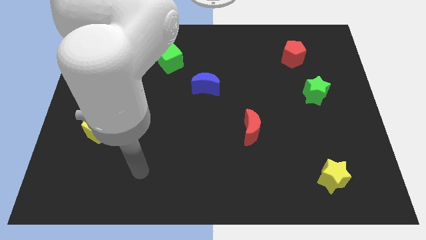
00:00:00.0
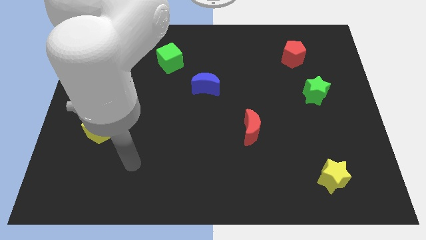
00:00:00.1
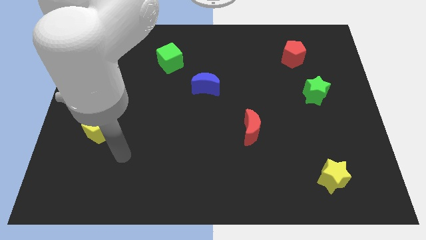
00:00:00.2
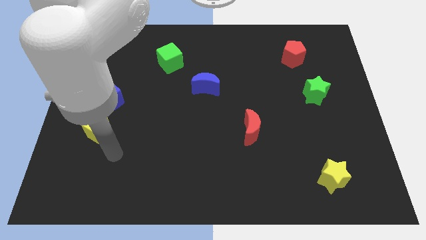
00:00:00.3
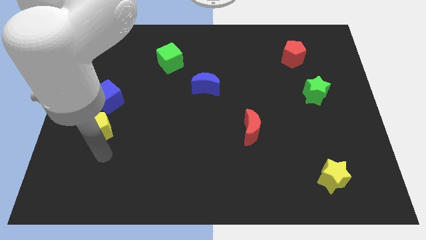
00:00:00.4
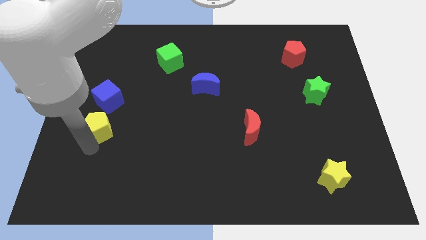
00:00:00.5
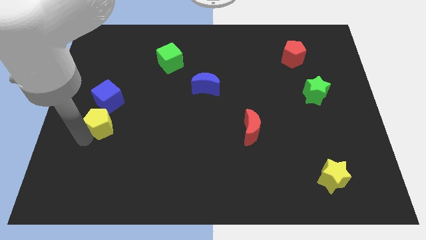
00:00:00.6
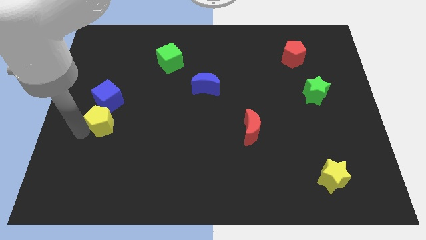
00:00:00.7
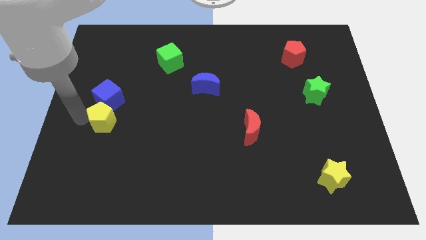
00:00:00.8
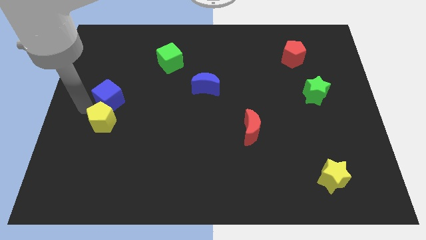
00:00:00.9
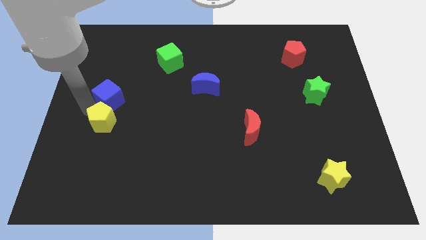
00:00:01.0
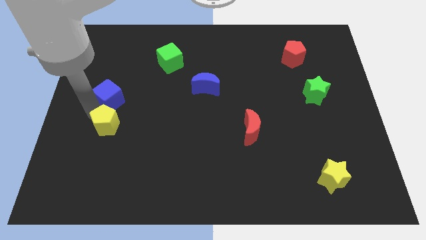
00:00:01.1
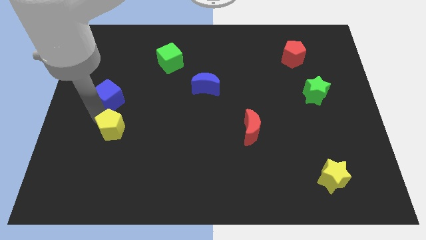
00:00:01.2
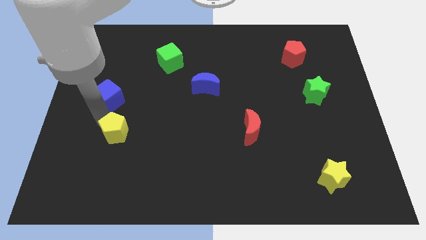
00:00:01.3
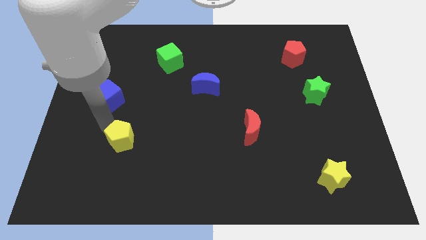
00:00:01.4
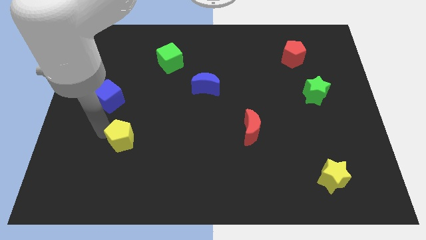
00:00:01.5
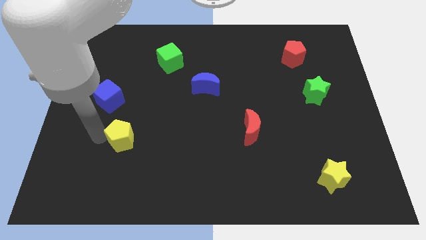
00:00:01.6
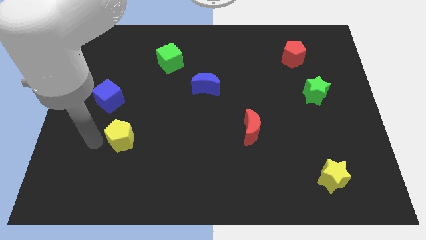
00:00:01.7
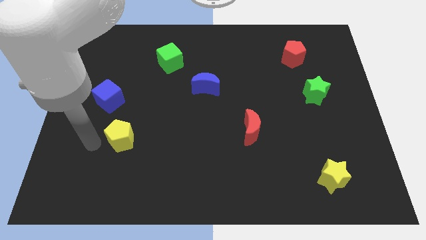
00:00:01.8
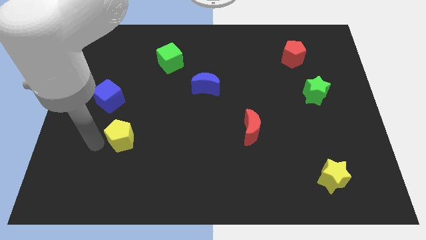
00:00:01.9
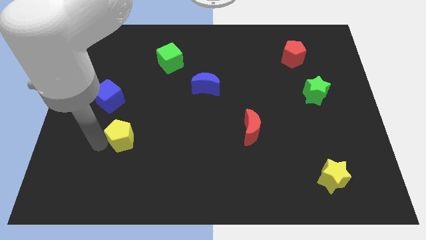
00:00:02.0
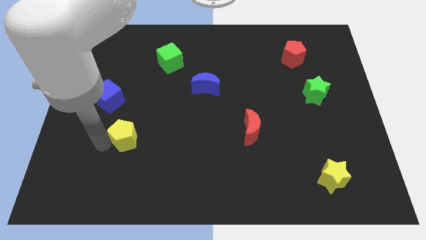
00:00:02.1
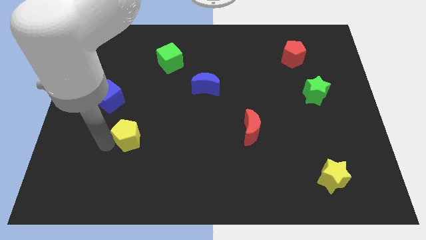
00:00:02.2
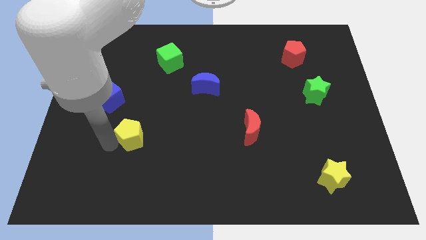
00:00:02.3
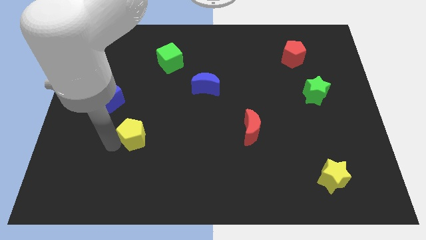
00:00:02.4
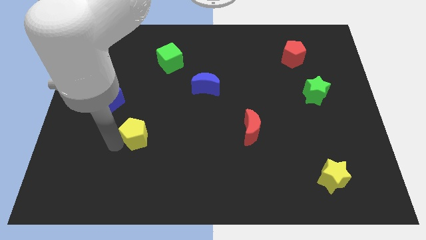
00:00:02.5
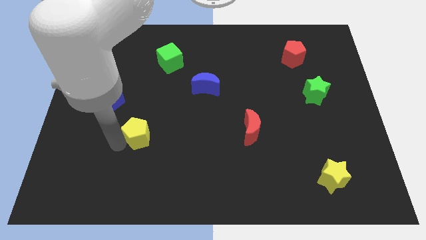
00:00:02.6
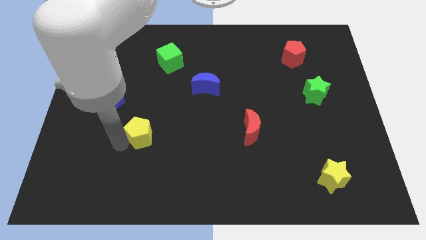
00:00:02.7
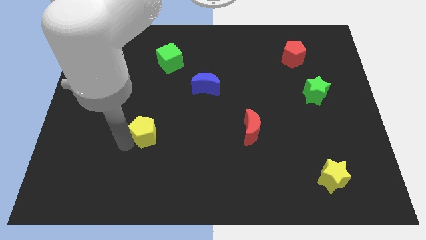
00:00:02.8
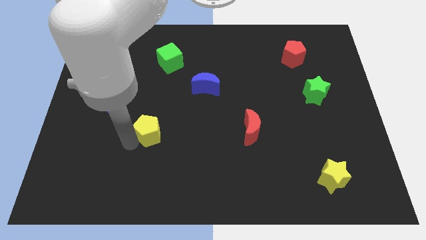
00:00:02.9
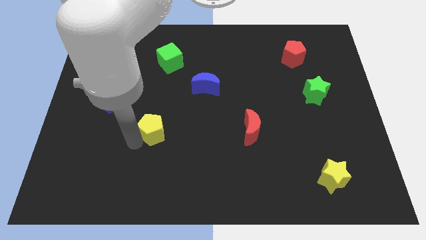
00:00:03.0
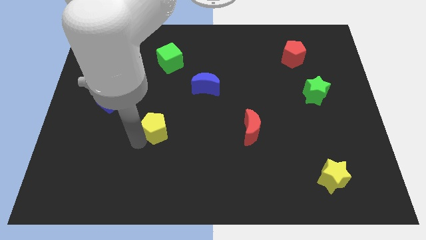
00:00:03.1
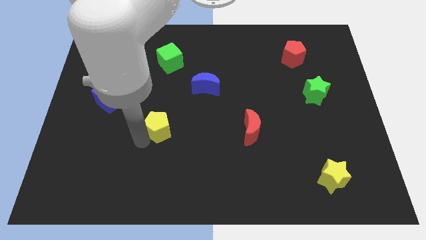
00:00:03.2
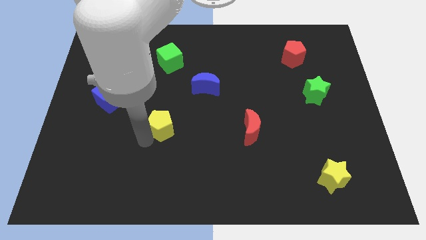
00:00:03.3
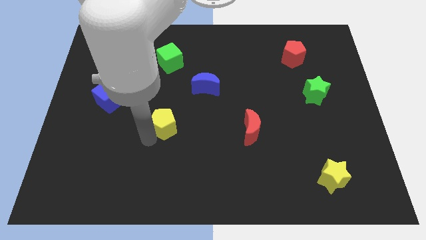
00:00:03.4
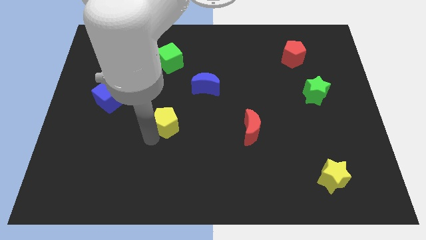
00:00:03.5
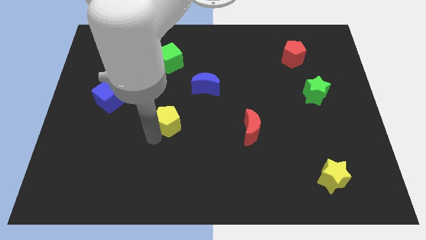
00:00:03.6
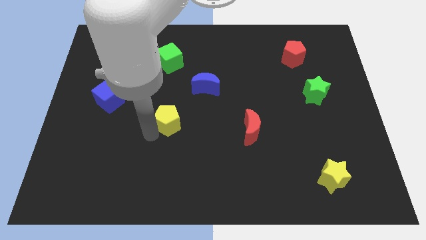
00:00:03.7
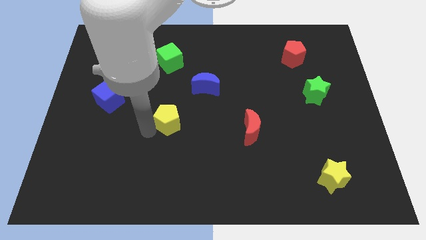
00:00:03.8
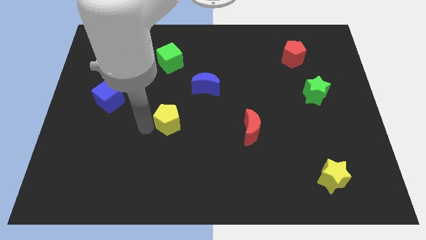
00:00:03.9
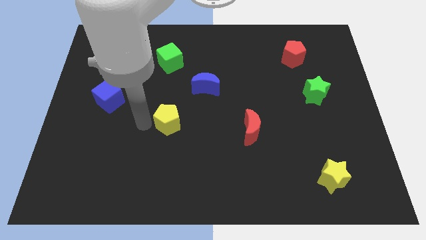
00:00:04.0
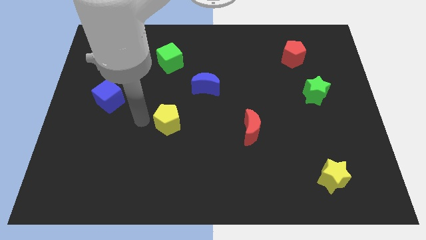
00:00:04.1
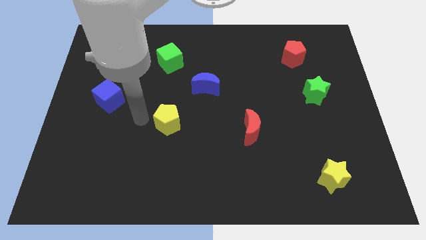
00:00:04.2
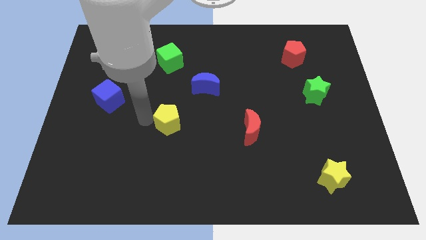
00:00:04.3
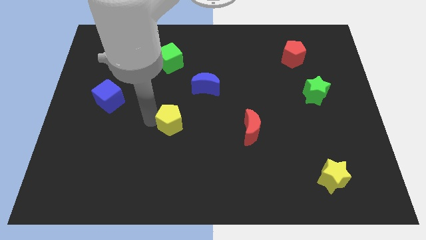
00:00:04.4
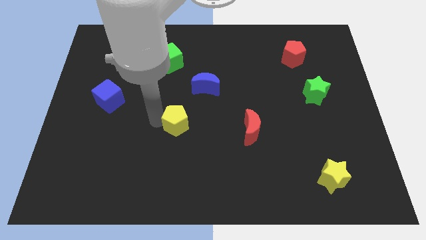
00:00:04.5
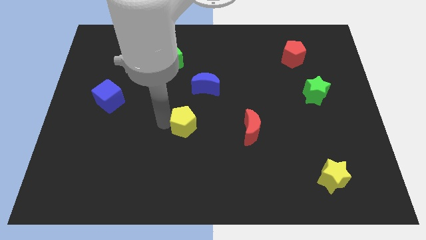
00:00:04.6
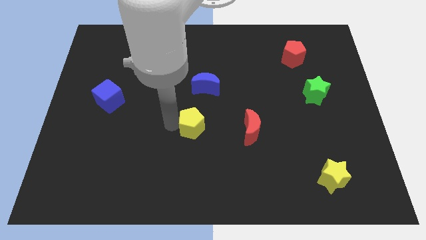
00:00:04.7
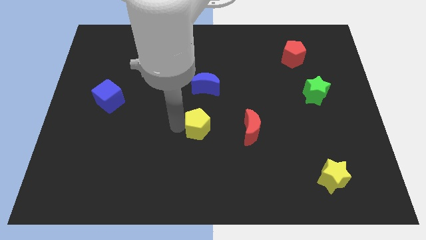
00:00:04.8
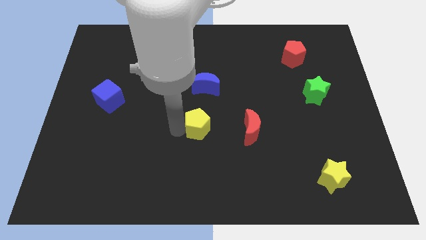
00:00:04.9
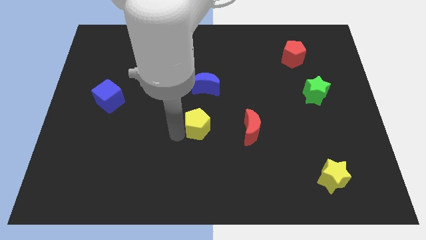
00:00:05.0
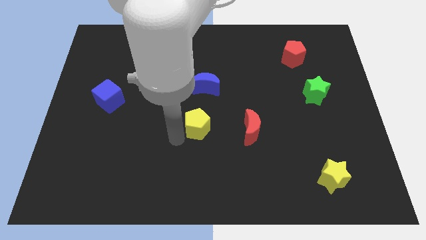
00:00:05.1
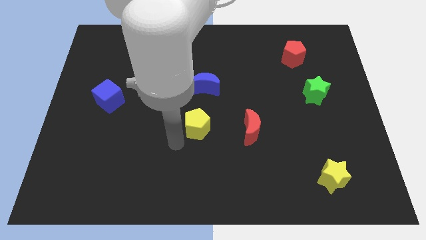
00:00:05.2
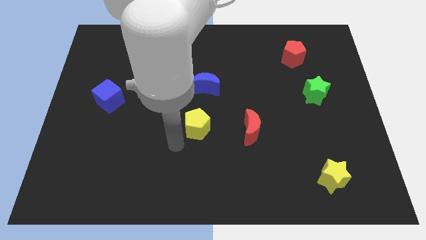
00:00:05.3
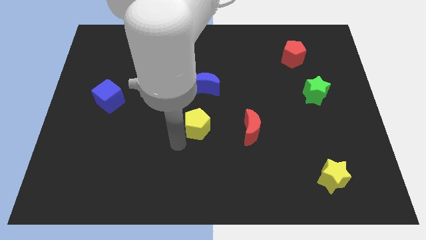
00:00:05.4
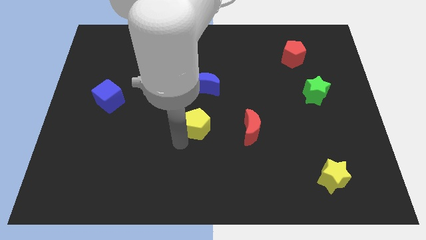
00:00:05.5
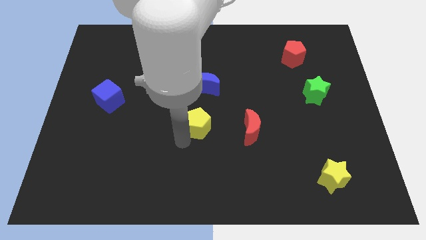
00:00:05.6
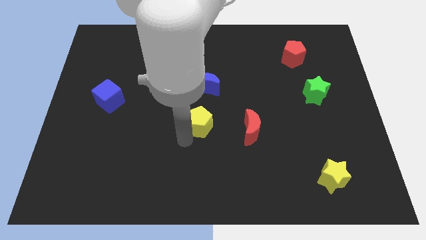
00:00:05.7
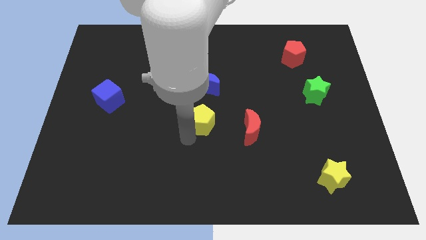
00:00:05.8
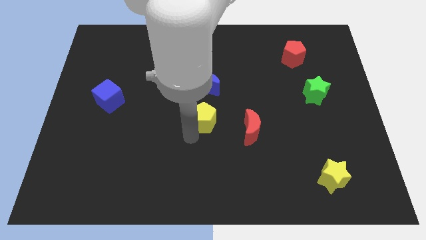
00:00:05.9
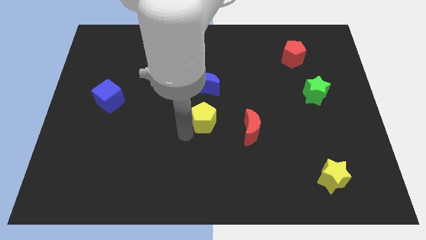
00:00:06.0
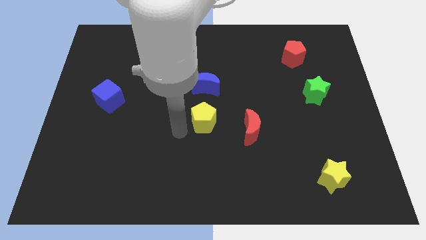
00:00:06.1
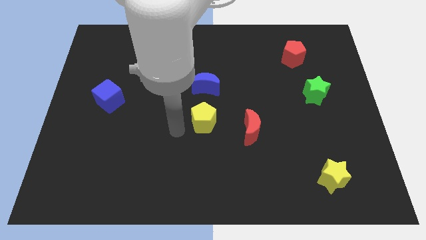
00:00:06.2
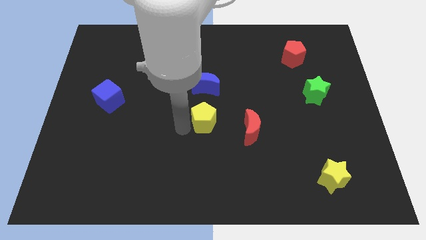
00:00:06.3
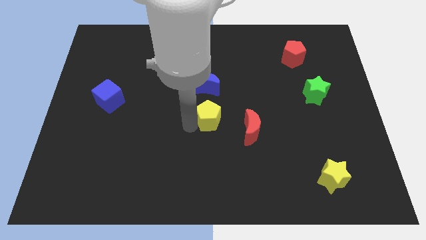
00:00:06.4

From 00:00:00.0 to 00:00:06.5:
slide the yellow pentagon to the top left side of the red moon
